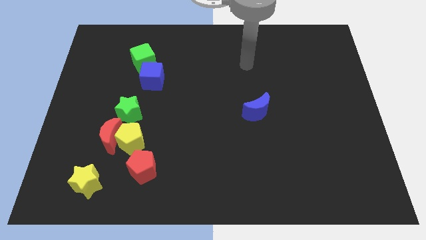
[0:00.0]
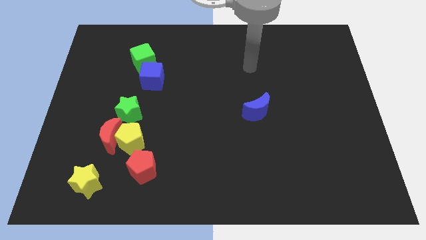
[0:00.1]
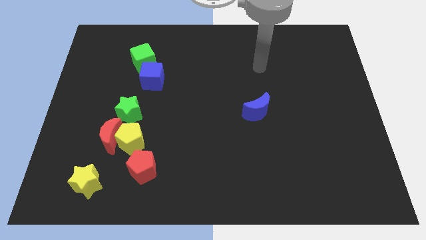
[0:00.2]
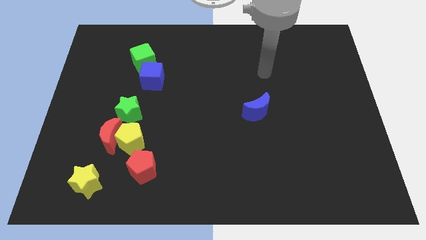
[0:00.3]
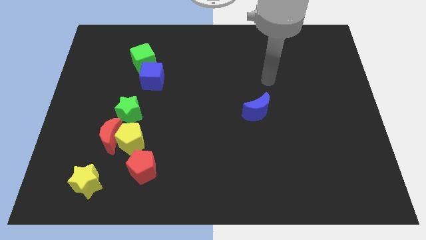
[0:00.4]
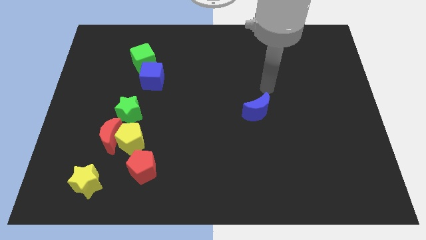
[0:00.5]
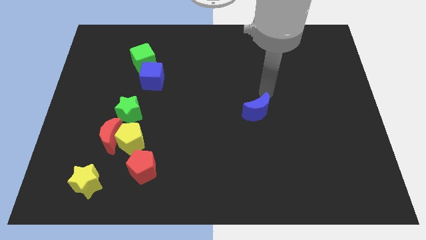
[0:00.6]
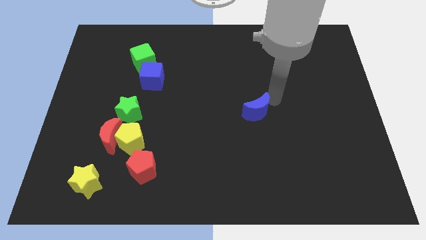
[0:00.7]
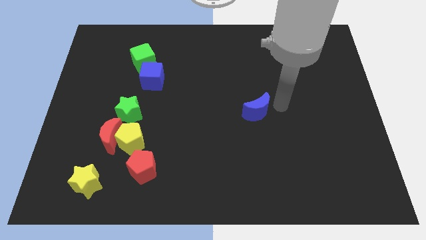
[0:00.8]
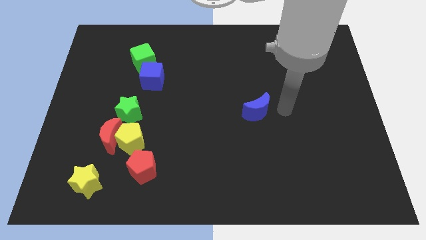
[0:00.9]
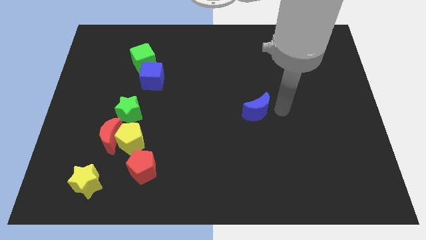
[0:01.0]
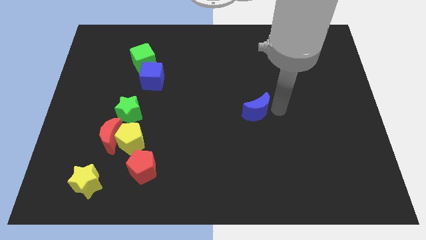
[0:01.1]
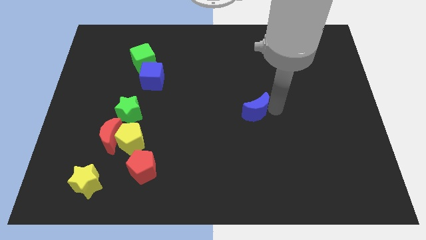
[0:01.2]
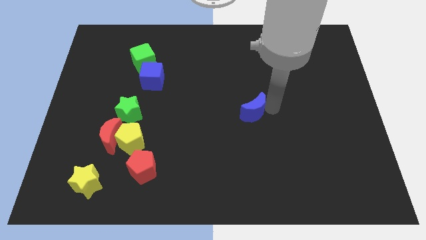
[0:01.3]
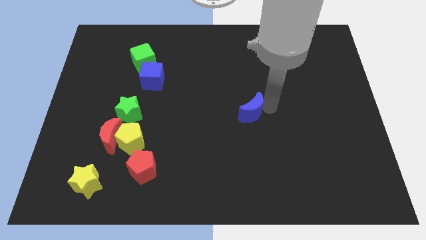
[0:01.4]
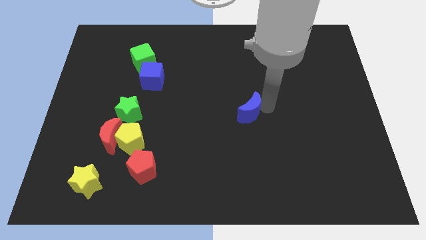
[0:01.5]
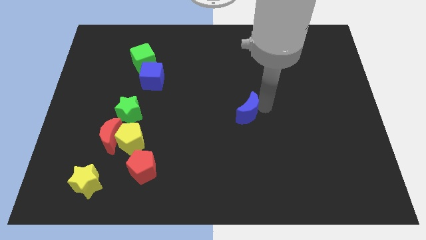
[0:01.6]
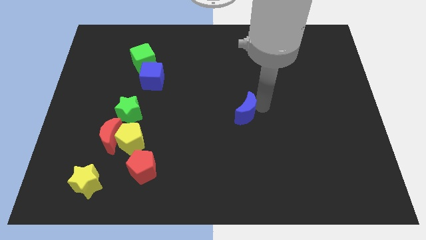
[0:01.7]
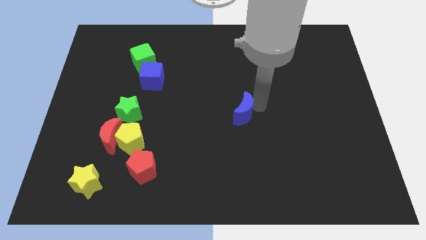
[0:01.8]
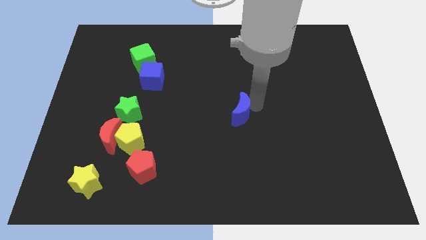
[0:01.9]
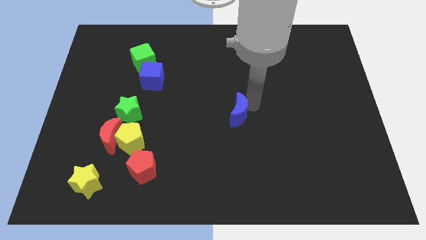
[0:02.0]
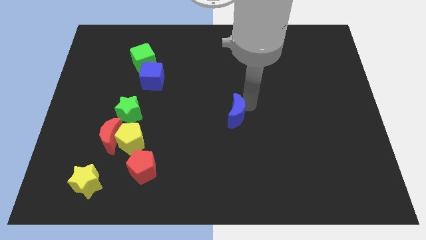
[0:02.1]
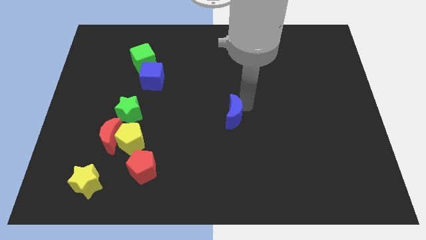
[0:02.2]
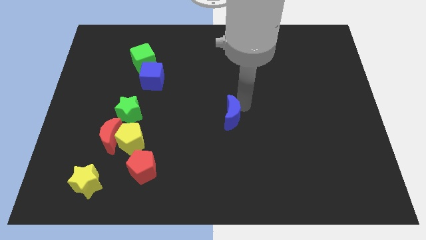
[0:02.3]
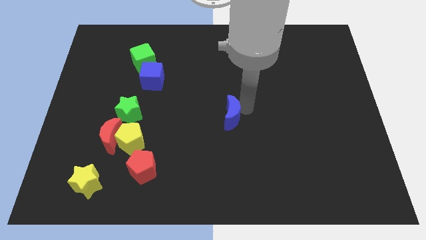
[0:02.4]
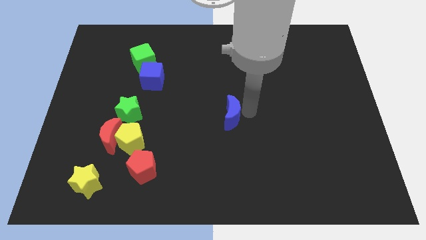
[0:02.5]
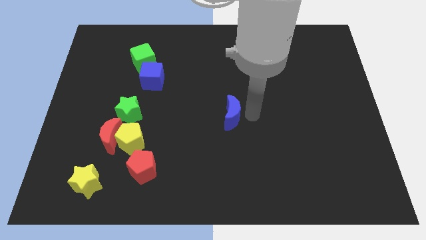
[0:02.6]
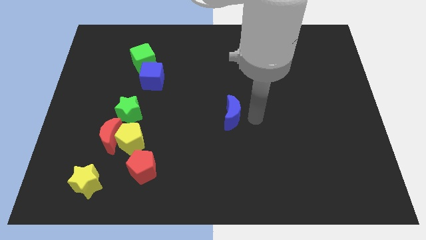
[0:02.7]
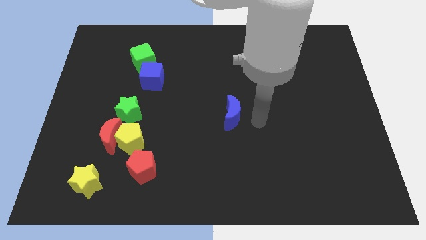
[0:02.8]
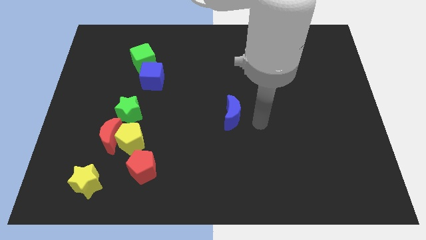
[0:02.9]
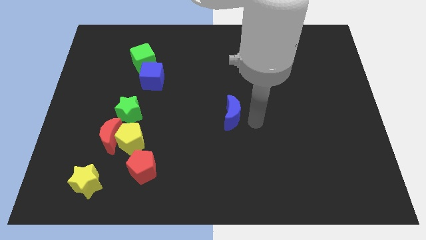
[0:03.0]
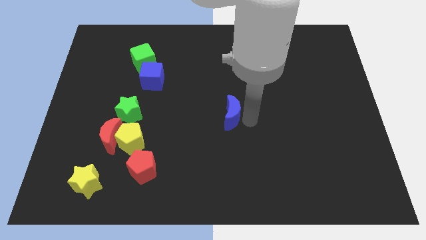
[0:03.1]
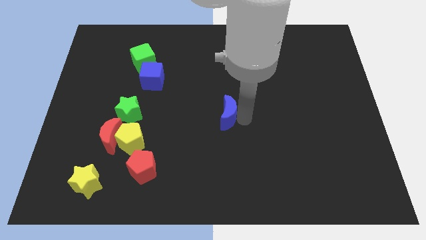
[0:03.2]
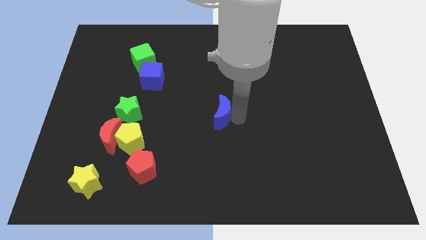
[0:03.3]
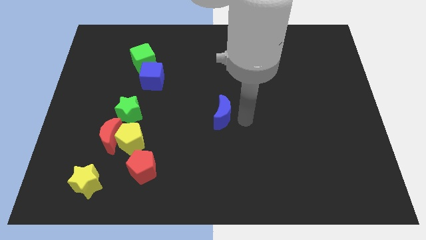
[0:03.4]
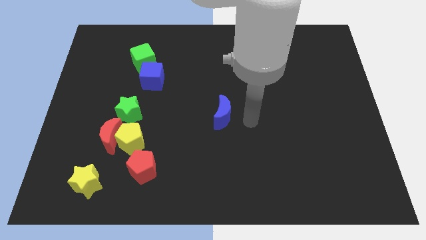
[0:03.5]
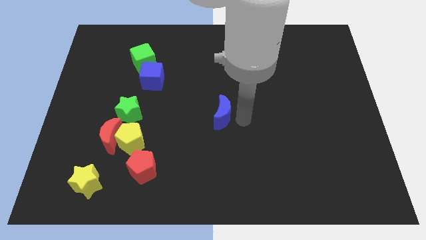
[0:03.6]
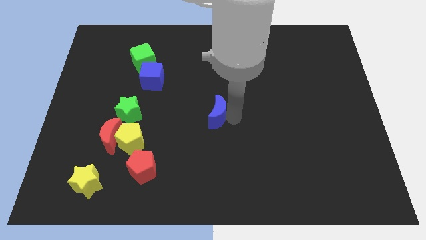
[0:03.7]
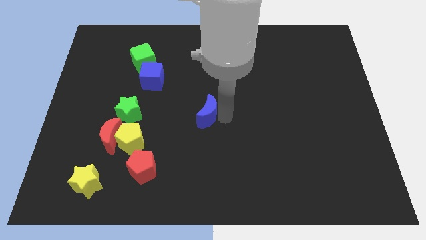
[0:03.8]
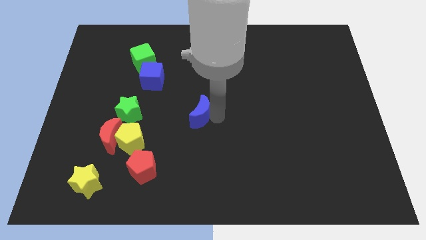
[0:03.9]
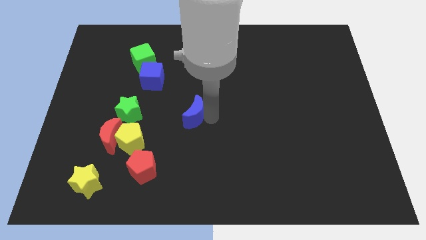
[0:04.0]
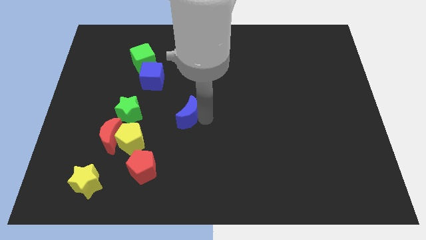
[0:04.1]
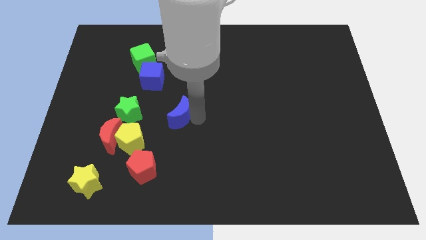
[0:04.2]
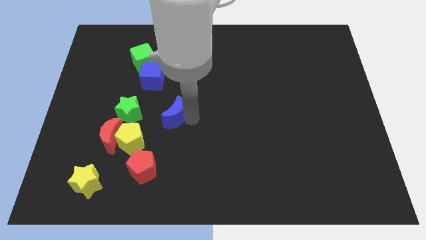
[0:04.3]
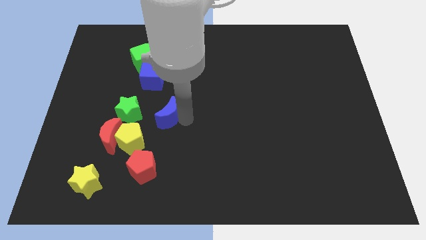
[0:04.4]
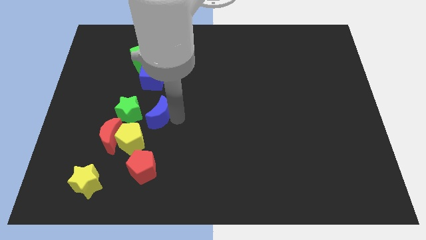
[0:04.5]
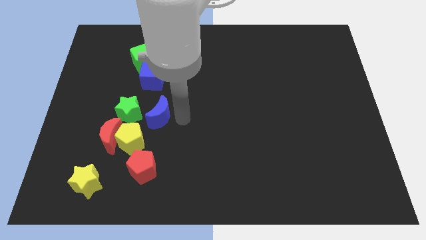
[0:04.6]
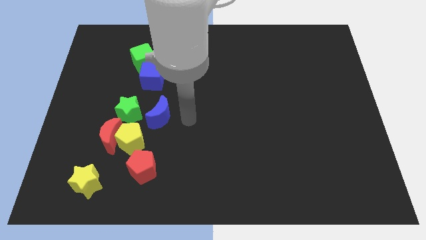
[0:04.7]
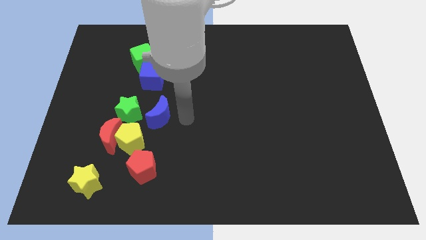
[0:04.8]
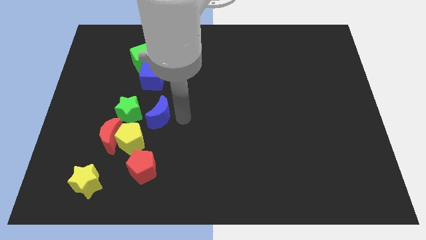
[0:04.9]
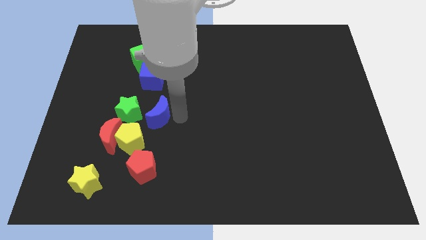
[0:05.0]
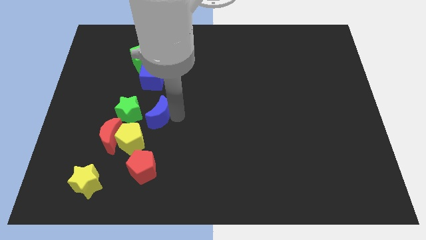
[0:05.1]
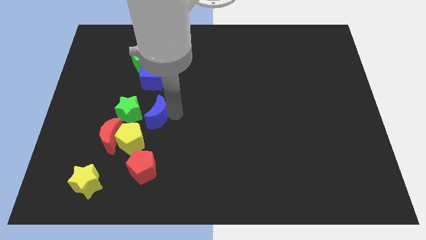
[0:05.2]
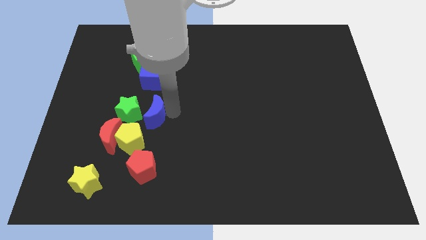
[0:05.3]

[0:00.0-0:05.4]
put the blue moon next to the green star

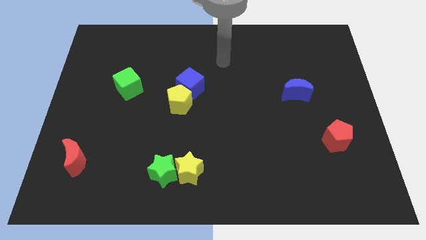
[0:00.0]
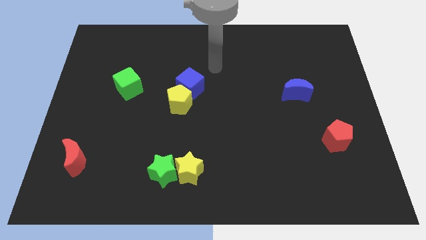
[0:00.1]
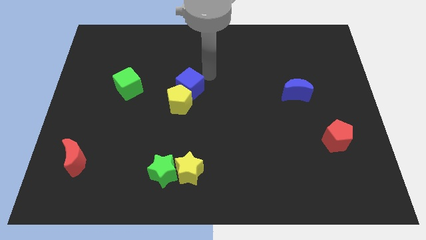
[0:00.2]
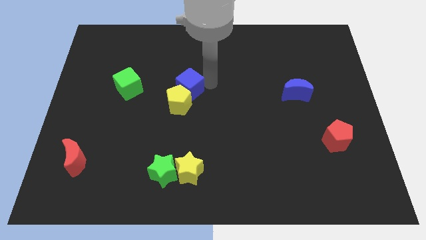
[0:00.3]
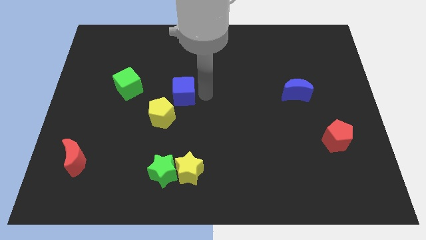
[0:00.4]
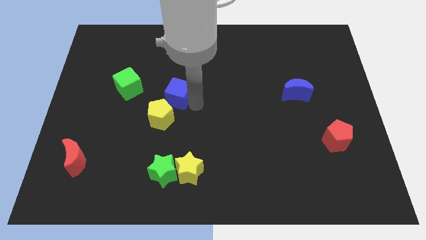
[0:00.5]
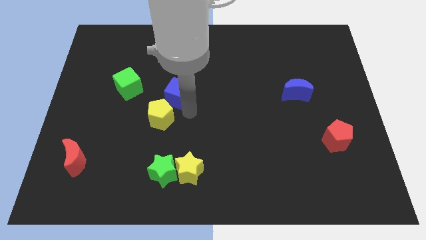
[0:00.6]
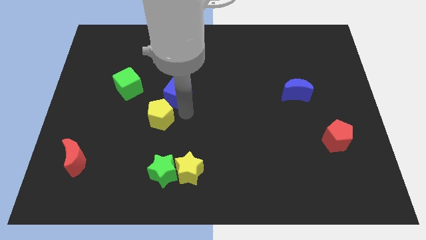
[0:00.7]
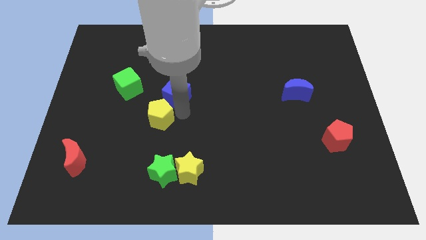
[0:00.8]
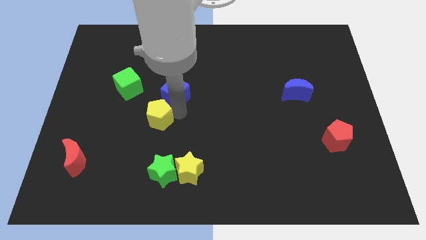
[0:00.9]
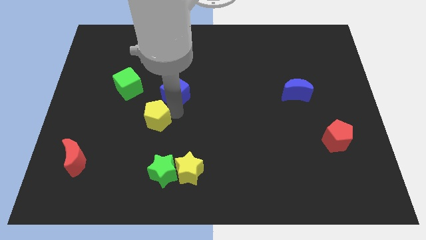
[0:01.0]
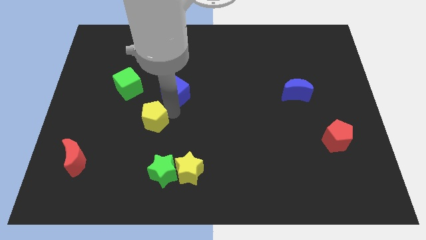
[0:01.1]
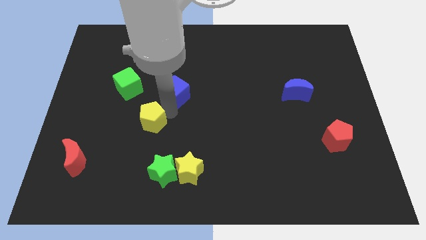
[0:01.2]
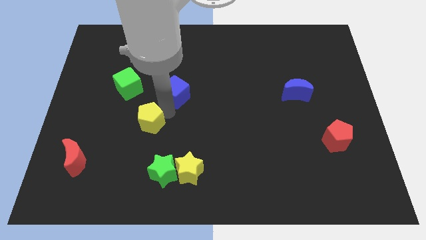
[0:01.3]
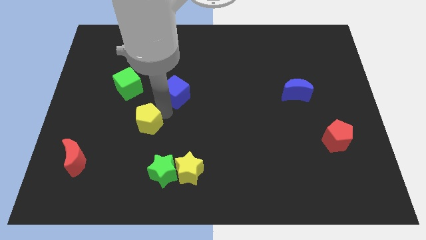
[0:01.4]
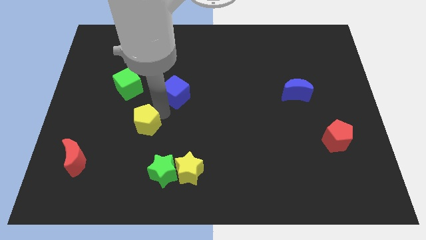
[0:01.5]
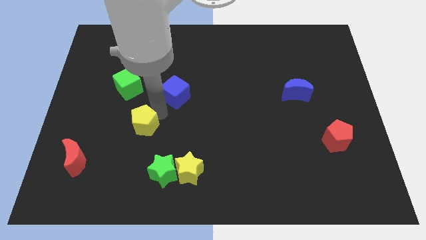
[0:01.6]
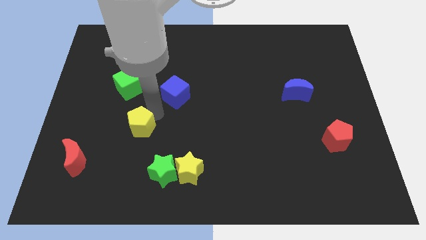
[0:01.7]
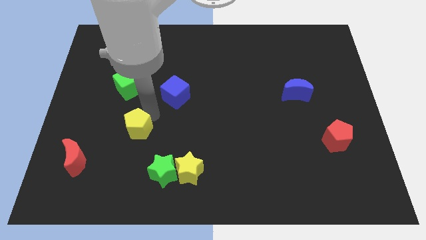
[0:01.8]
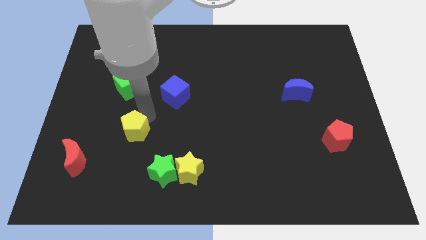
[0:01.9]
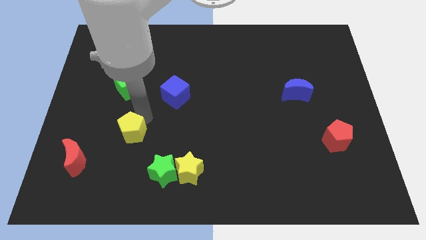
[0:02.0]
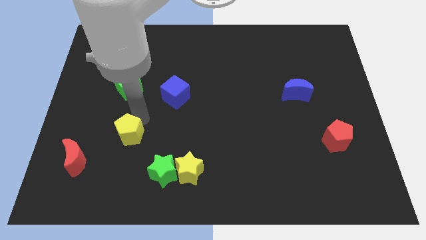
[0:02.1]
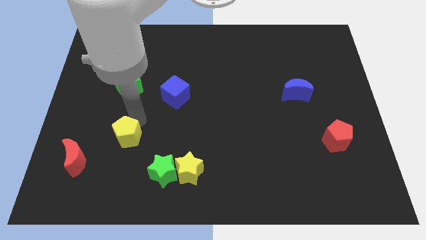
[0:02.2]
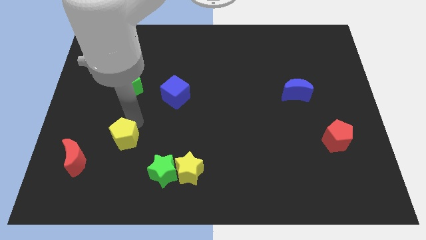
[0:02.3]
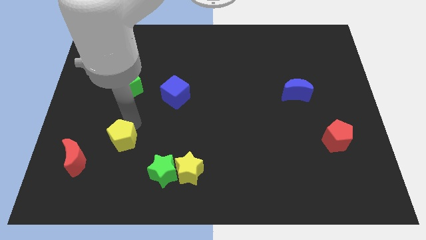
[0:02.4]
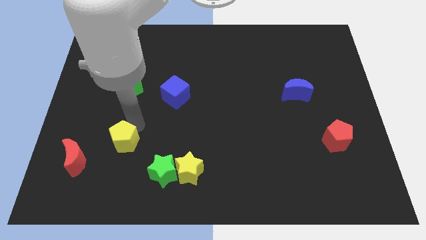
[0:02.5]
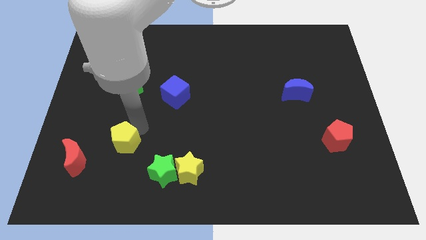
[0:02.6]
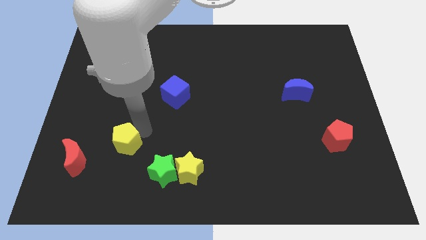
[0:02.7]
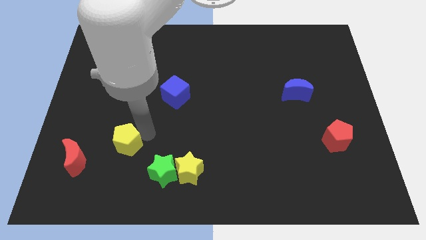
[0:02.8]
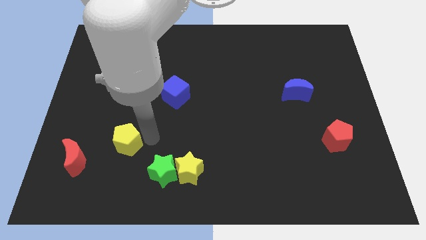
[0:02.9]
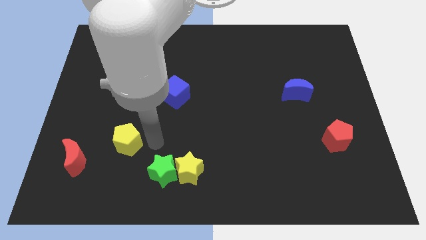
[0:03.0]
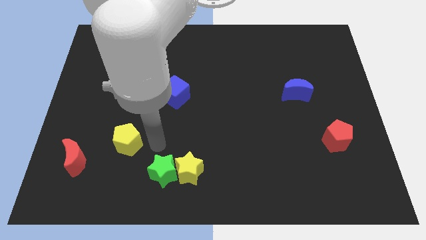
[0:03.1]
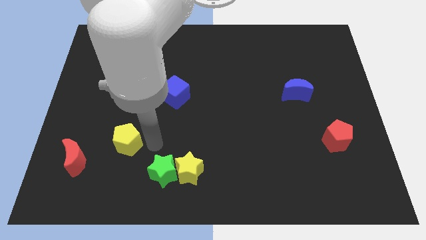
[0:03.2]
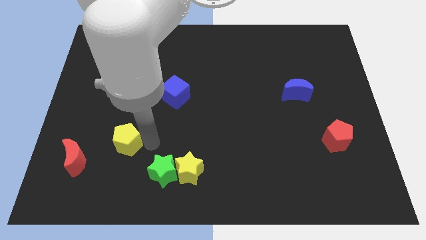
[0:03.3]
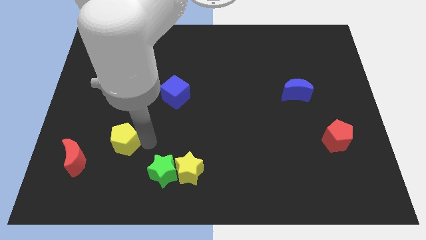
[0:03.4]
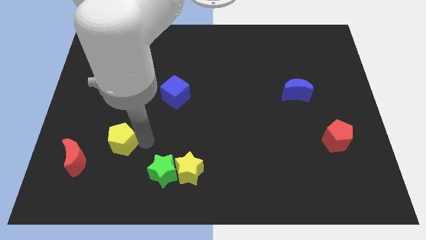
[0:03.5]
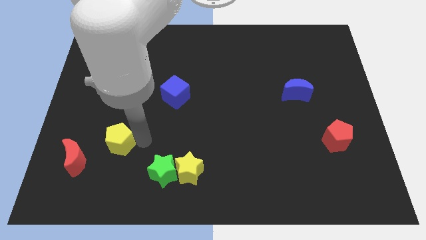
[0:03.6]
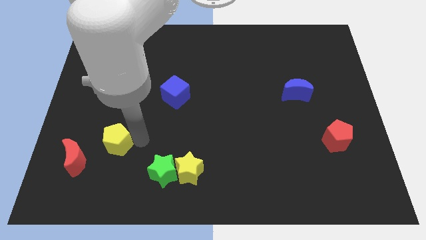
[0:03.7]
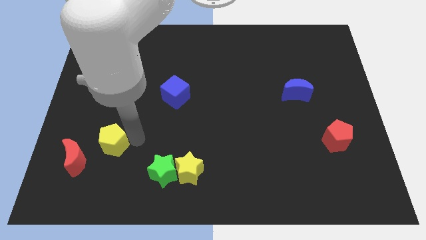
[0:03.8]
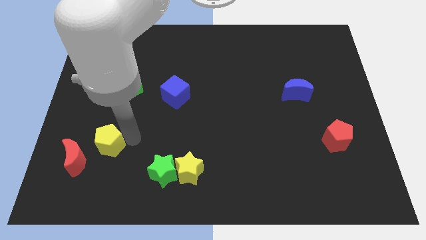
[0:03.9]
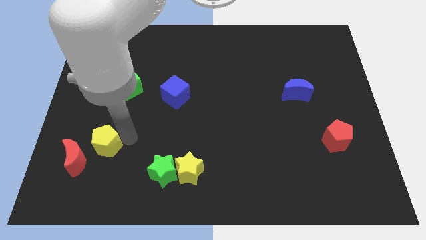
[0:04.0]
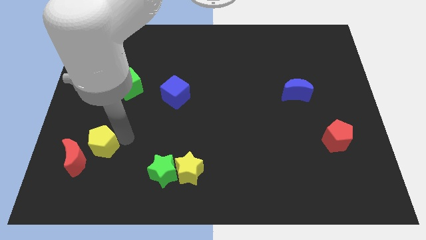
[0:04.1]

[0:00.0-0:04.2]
slide the yellow pentagon towards the red moon
